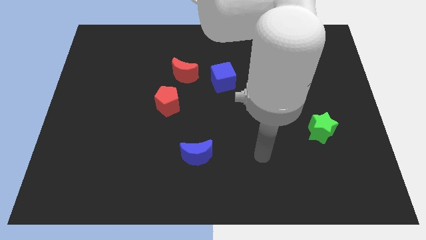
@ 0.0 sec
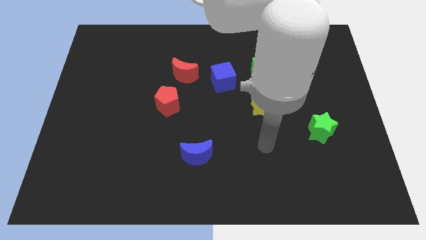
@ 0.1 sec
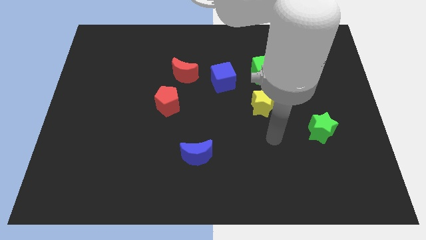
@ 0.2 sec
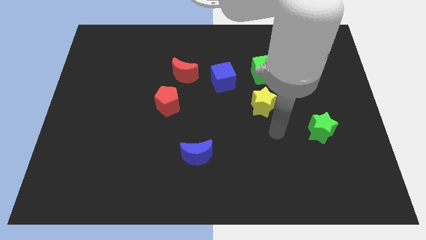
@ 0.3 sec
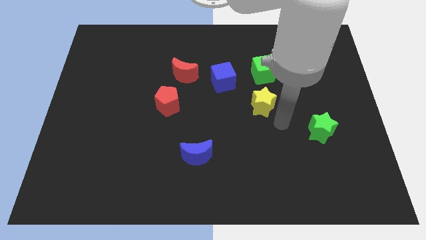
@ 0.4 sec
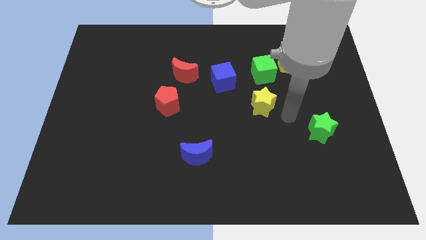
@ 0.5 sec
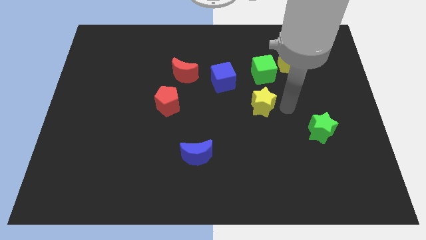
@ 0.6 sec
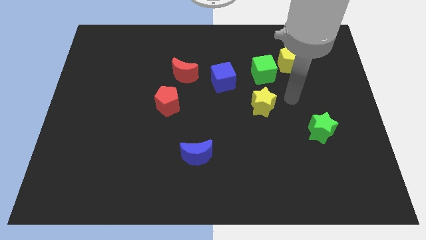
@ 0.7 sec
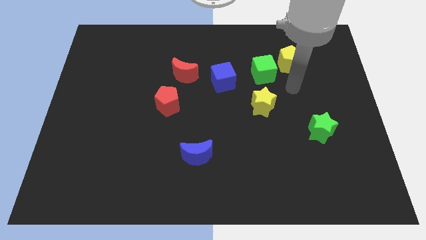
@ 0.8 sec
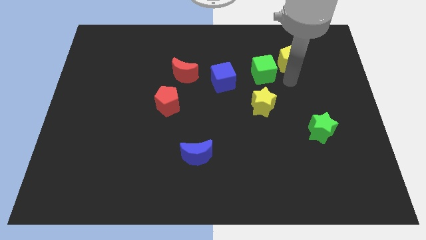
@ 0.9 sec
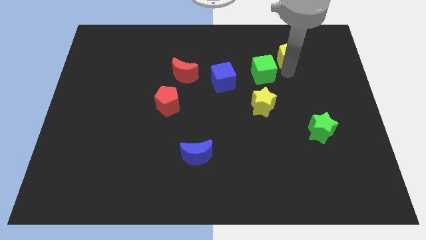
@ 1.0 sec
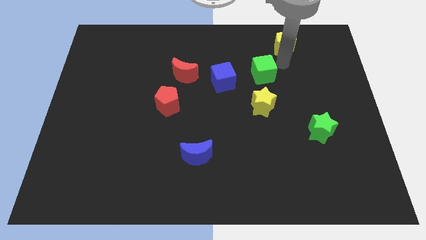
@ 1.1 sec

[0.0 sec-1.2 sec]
separate the green cube from the yellow pentagon

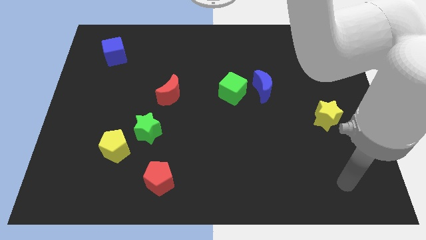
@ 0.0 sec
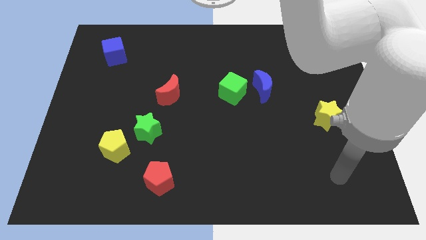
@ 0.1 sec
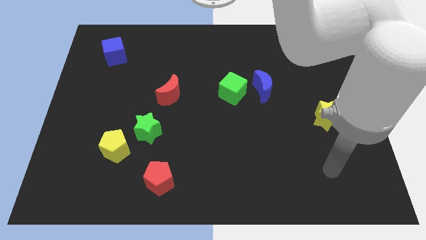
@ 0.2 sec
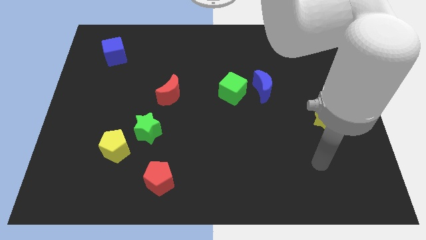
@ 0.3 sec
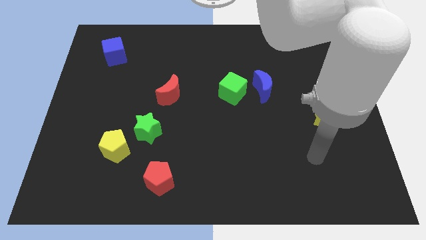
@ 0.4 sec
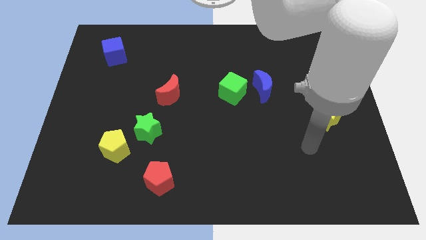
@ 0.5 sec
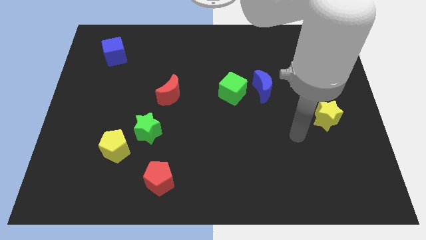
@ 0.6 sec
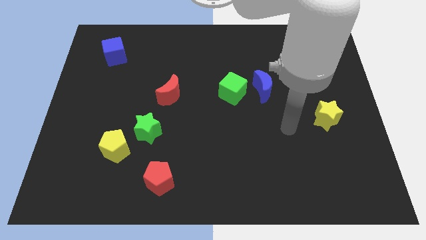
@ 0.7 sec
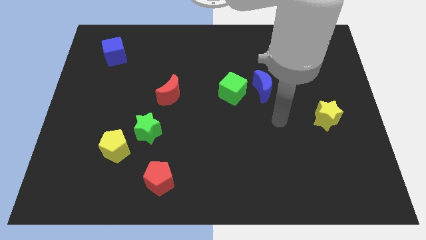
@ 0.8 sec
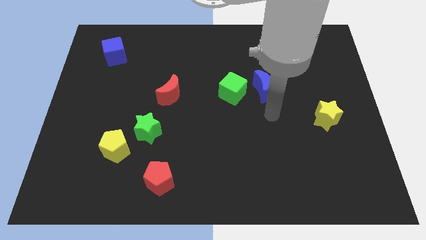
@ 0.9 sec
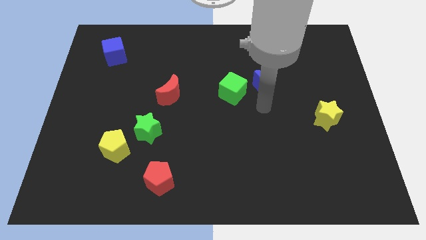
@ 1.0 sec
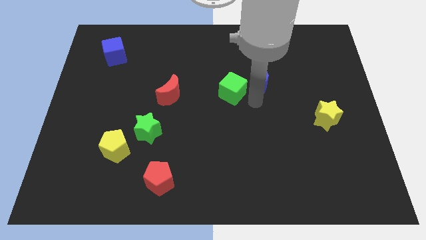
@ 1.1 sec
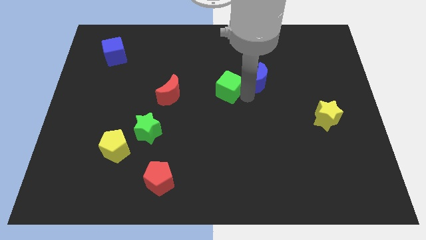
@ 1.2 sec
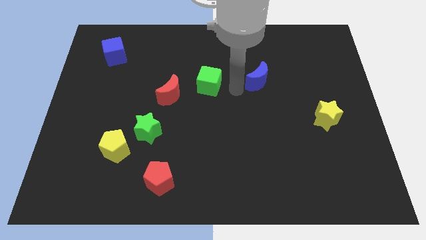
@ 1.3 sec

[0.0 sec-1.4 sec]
pull the blue moon apart from the green cube

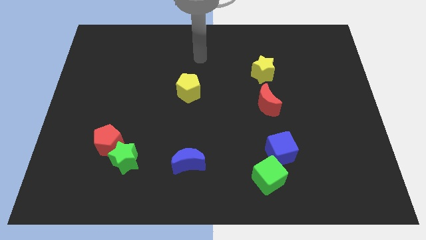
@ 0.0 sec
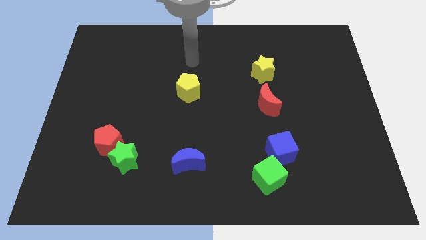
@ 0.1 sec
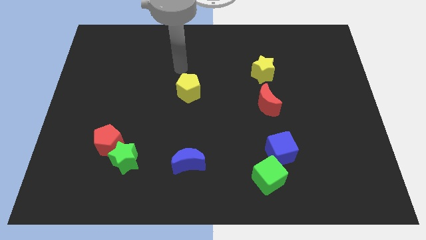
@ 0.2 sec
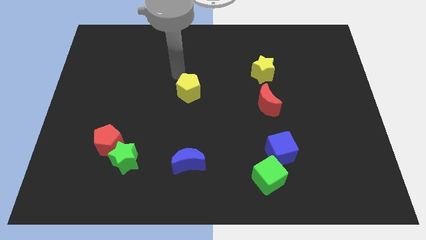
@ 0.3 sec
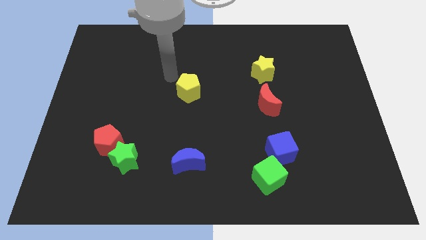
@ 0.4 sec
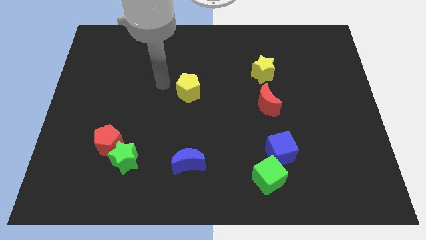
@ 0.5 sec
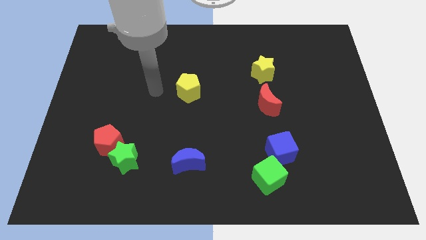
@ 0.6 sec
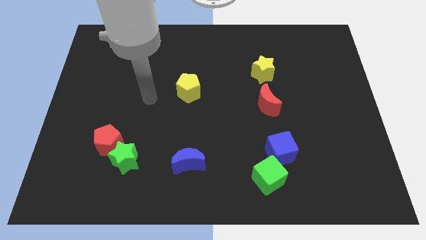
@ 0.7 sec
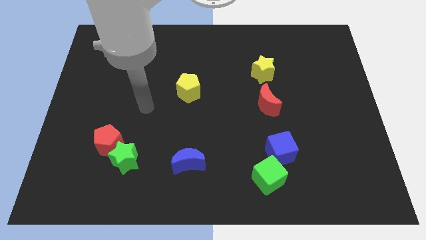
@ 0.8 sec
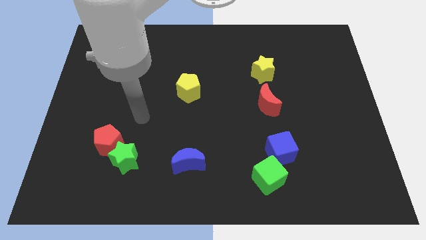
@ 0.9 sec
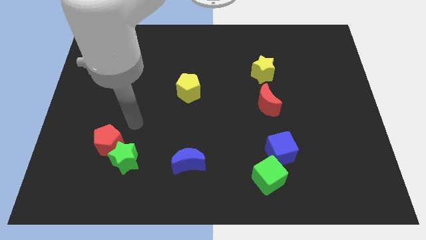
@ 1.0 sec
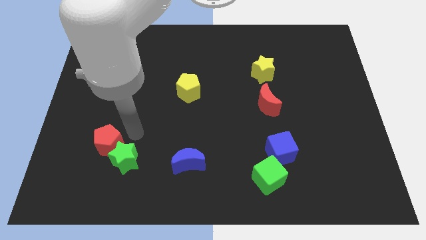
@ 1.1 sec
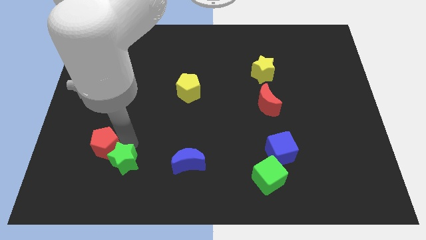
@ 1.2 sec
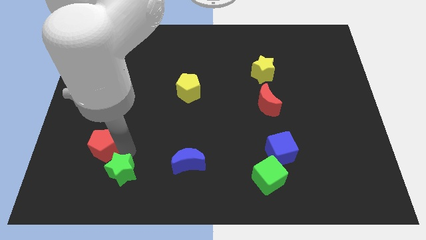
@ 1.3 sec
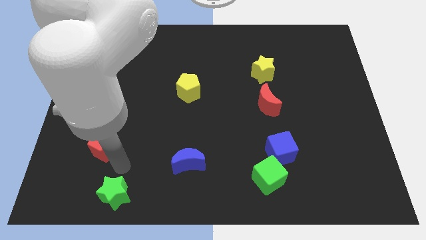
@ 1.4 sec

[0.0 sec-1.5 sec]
pull the red pentagon apart from the green star

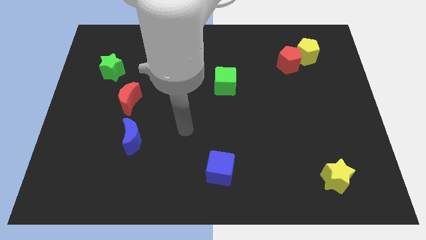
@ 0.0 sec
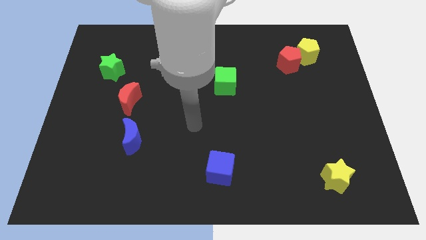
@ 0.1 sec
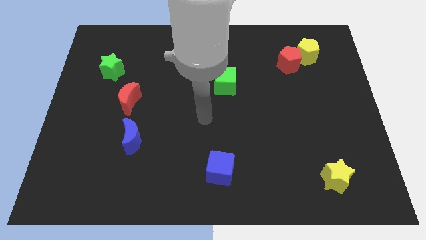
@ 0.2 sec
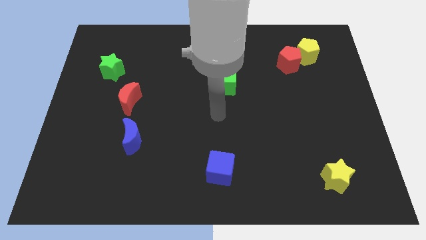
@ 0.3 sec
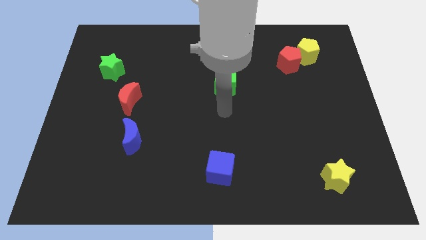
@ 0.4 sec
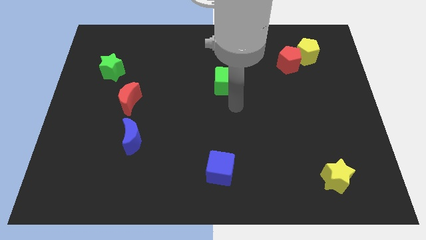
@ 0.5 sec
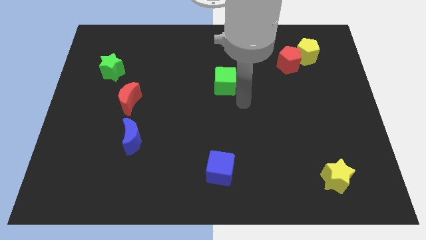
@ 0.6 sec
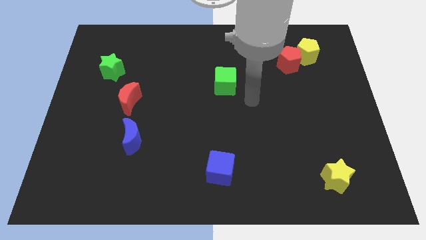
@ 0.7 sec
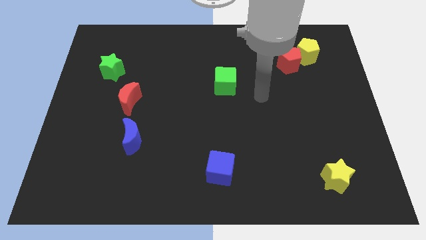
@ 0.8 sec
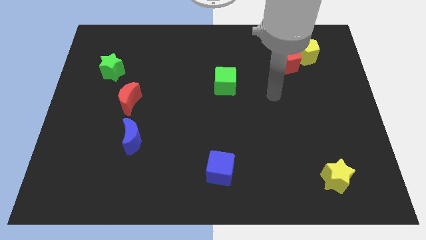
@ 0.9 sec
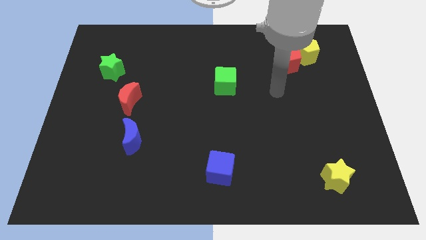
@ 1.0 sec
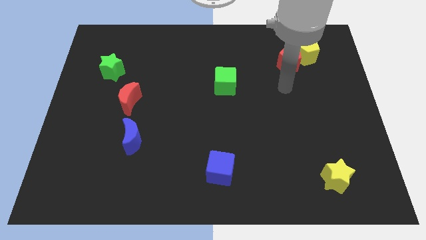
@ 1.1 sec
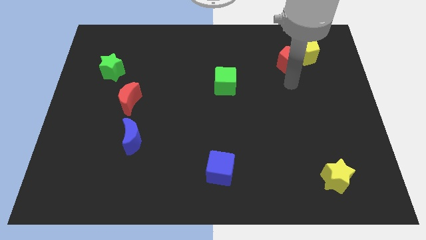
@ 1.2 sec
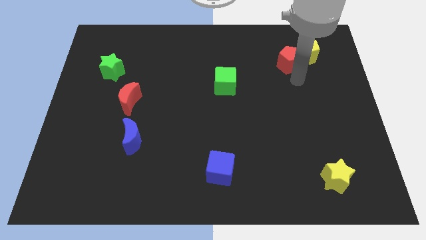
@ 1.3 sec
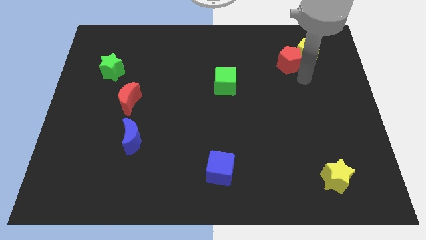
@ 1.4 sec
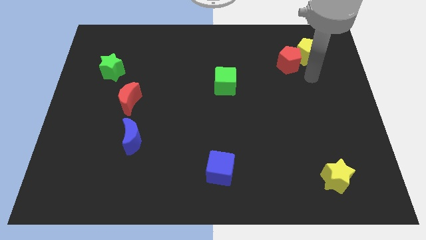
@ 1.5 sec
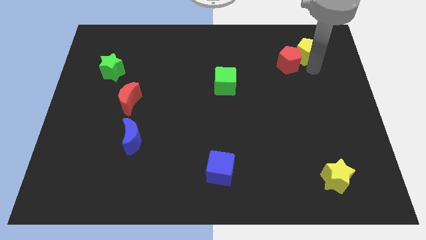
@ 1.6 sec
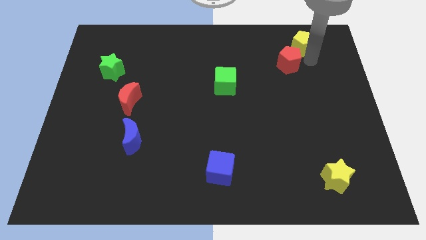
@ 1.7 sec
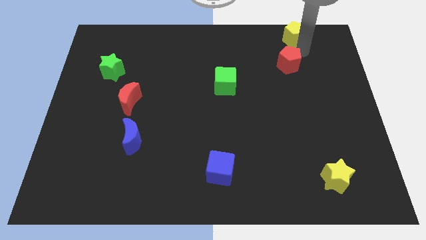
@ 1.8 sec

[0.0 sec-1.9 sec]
separate the red pentagon from the yellow pentagon

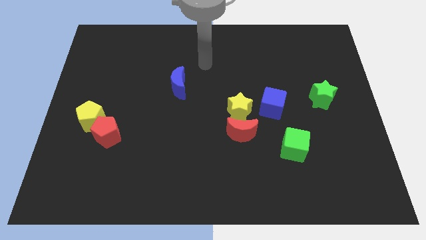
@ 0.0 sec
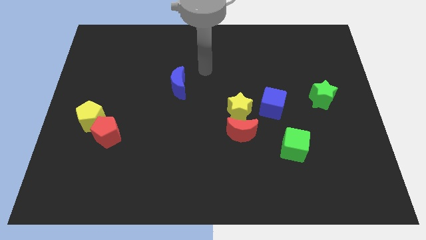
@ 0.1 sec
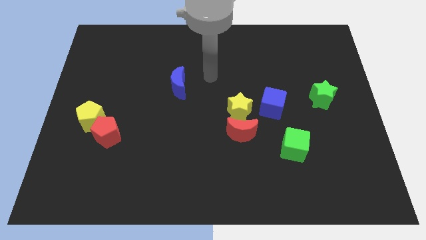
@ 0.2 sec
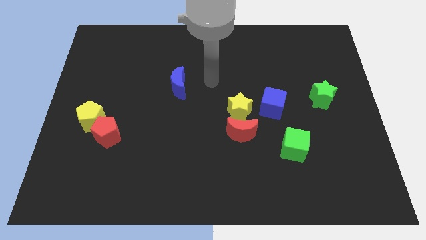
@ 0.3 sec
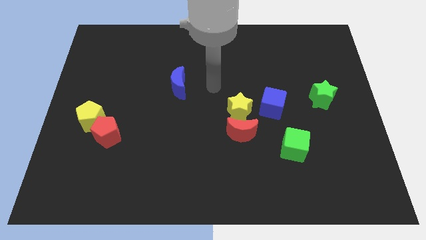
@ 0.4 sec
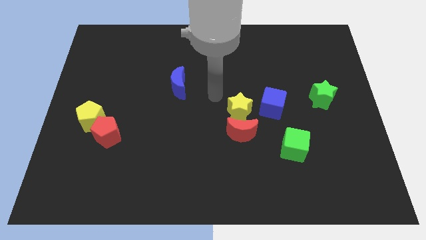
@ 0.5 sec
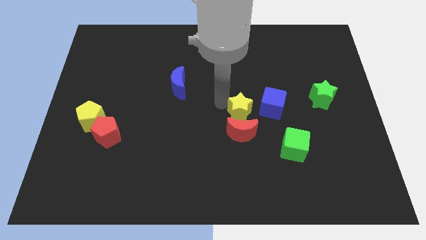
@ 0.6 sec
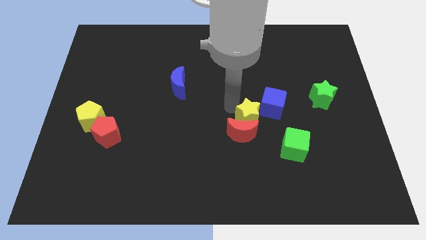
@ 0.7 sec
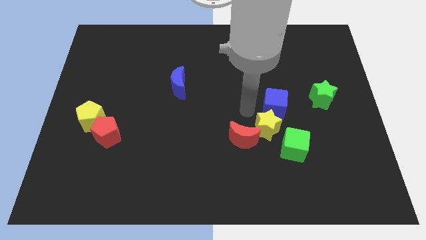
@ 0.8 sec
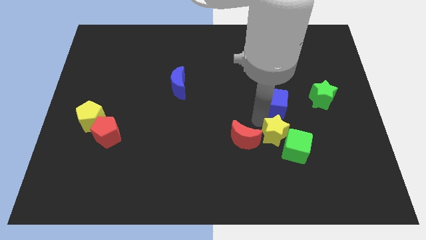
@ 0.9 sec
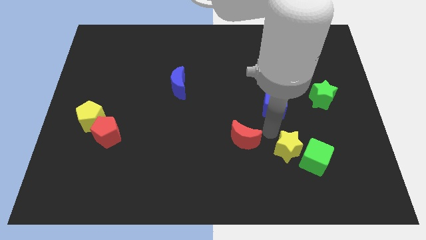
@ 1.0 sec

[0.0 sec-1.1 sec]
pull the red moon apart from the yellow star

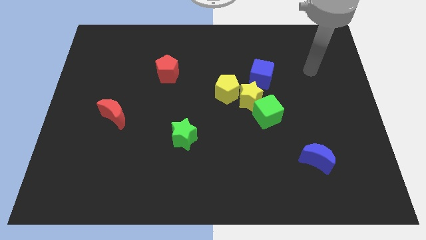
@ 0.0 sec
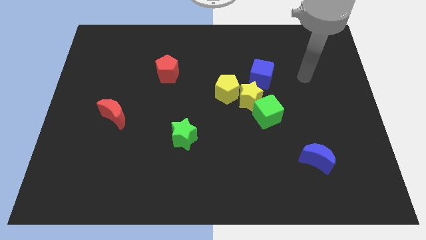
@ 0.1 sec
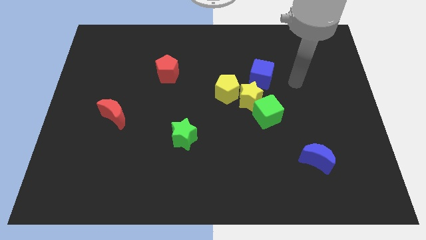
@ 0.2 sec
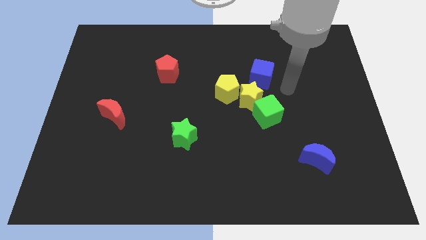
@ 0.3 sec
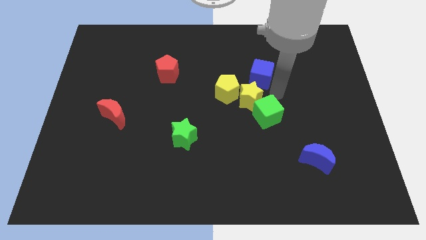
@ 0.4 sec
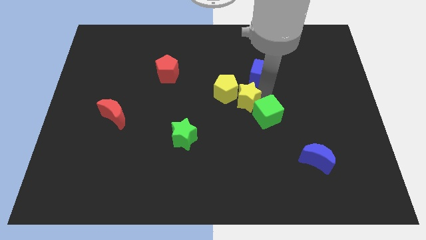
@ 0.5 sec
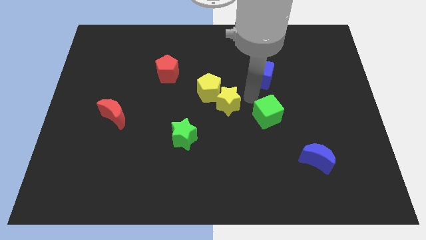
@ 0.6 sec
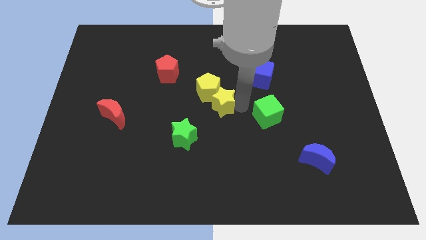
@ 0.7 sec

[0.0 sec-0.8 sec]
separate the green cube from the yellow star

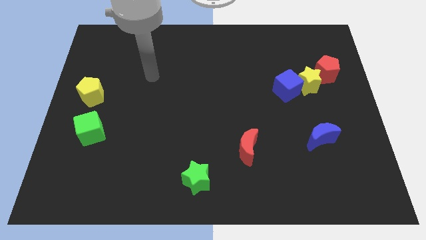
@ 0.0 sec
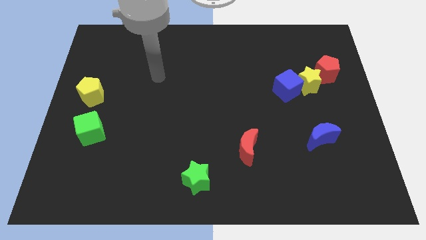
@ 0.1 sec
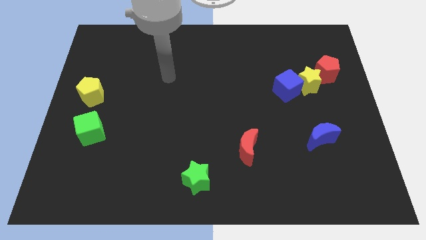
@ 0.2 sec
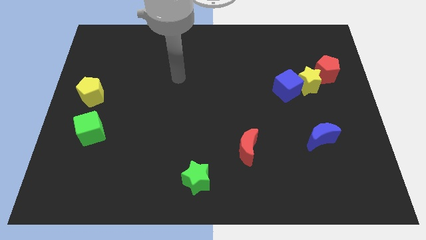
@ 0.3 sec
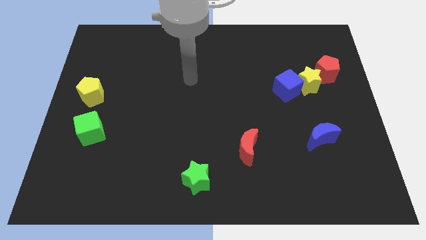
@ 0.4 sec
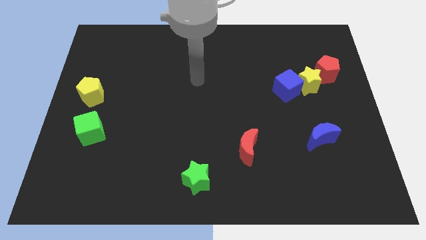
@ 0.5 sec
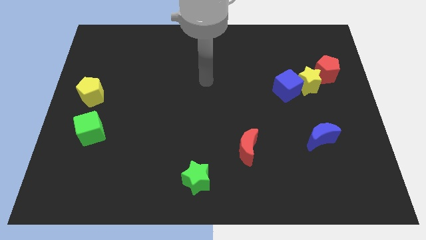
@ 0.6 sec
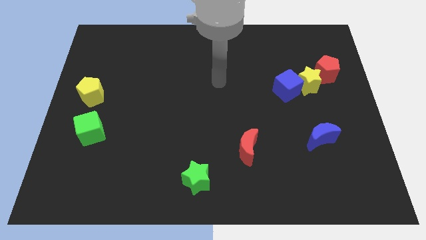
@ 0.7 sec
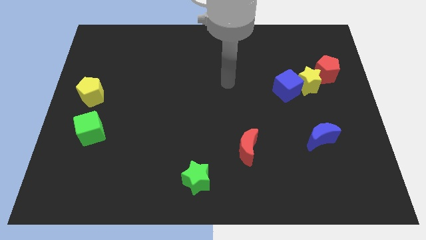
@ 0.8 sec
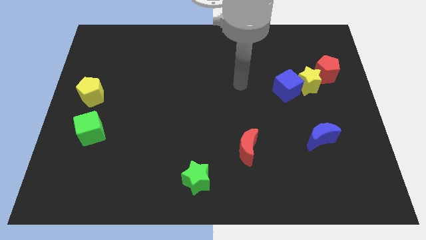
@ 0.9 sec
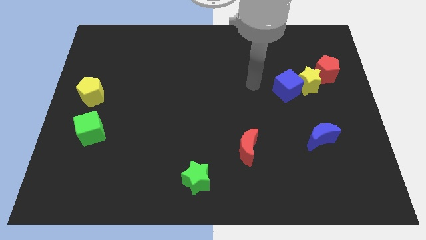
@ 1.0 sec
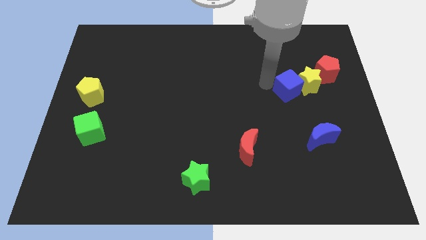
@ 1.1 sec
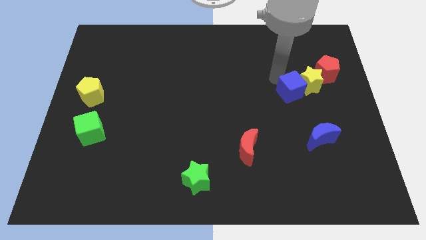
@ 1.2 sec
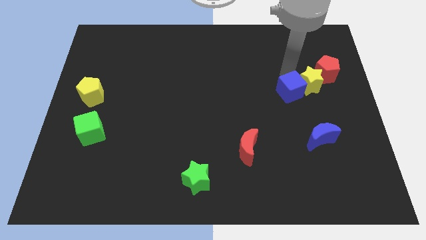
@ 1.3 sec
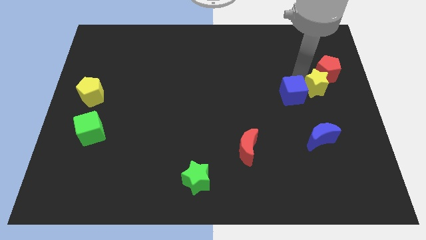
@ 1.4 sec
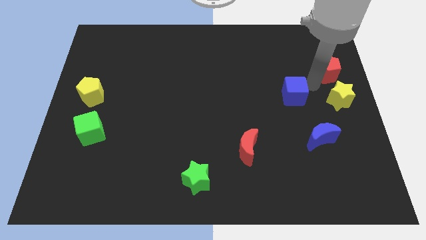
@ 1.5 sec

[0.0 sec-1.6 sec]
separate the blue cube from the yellow star
